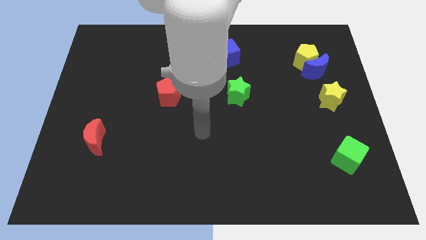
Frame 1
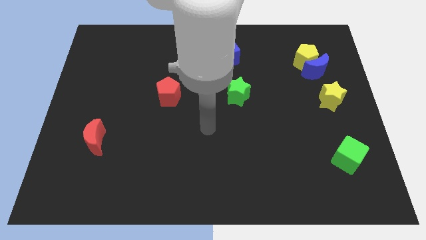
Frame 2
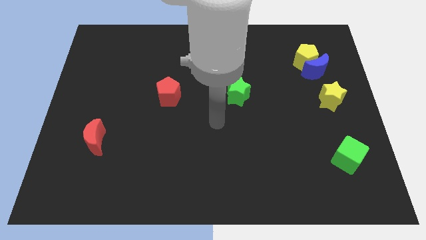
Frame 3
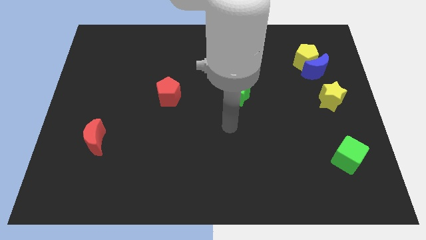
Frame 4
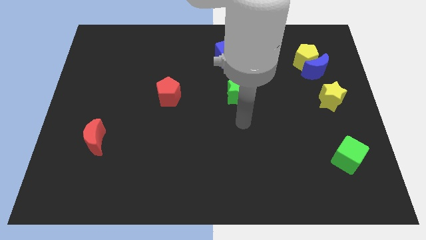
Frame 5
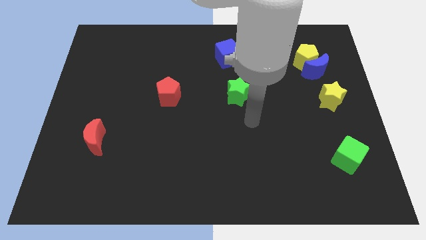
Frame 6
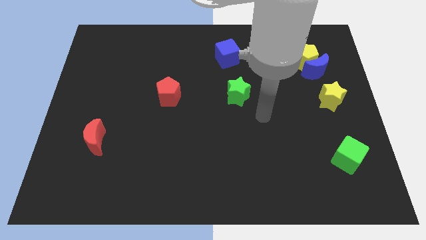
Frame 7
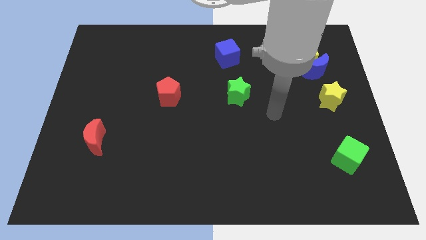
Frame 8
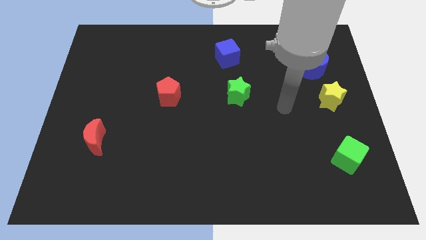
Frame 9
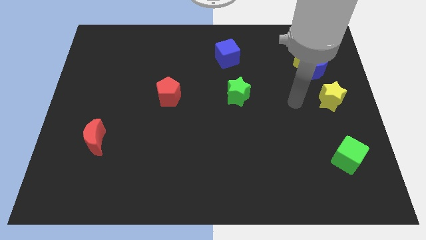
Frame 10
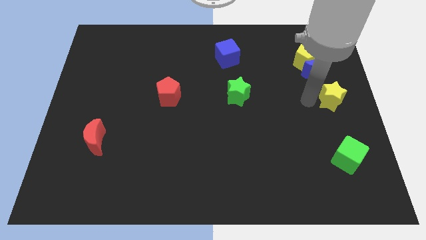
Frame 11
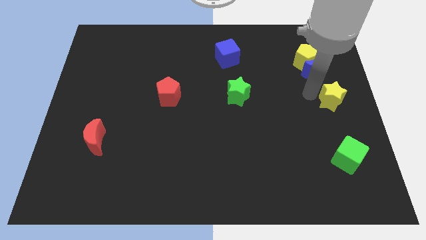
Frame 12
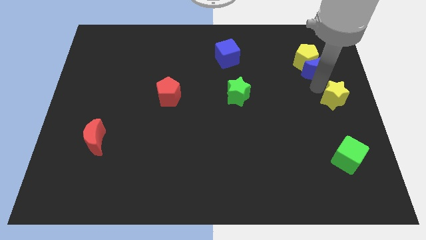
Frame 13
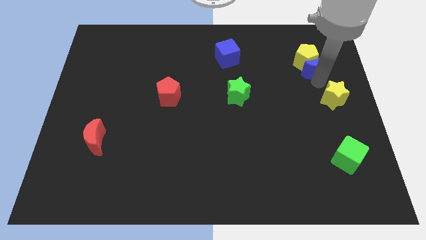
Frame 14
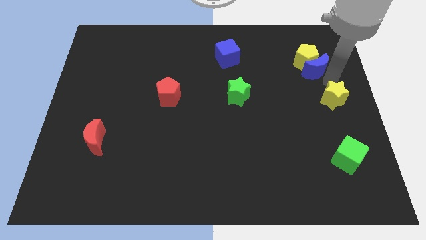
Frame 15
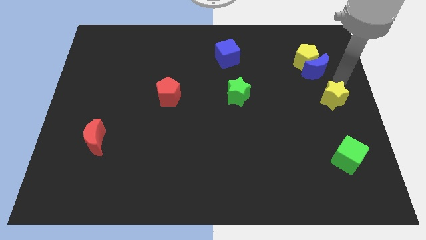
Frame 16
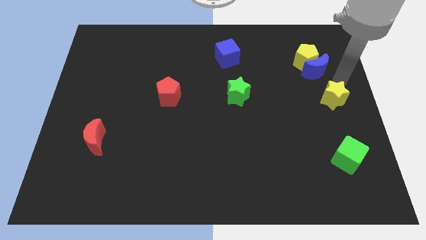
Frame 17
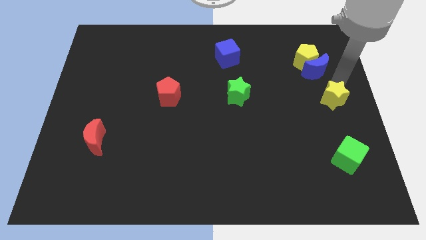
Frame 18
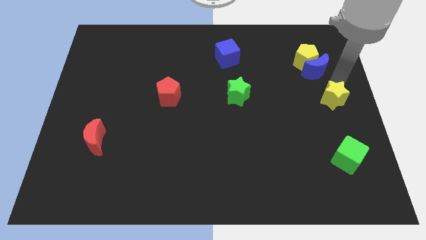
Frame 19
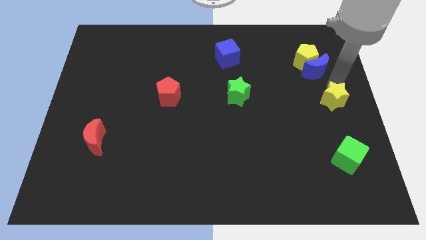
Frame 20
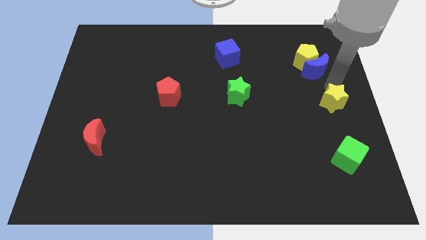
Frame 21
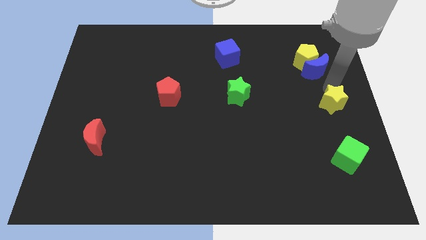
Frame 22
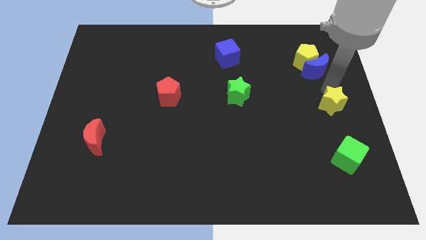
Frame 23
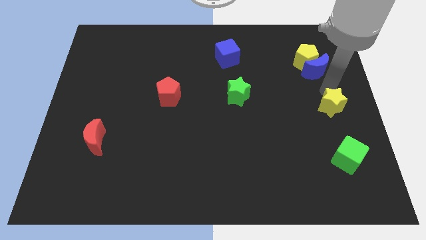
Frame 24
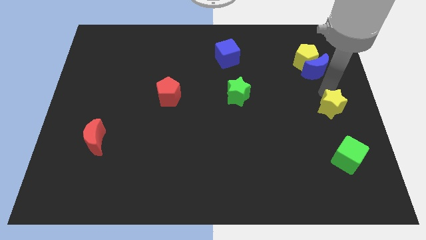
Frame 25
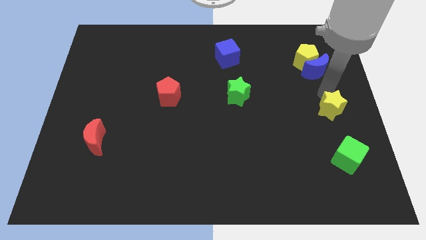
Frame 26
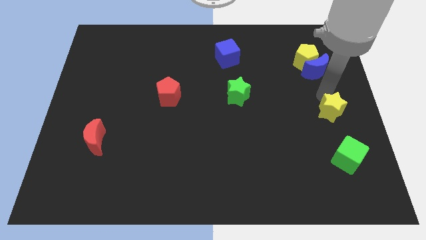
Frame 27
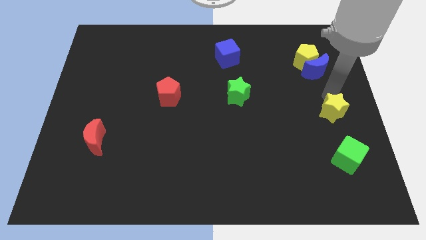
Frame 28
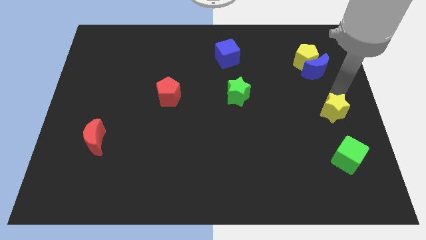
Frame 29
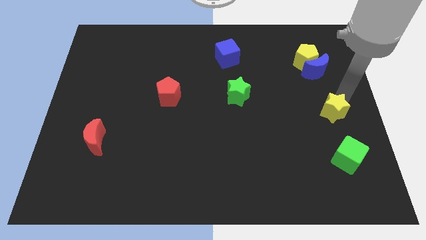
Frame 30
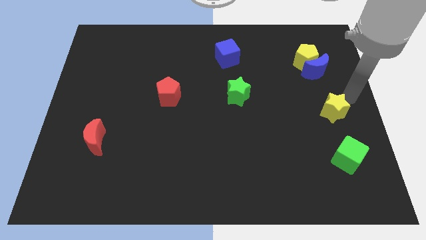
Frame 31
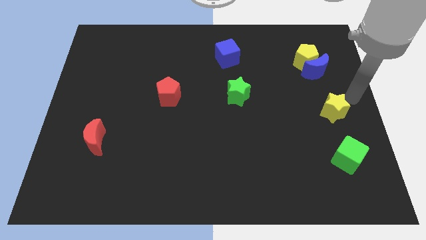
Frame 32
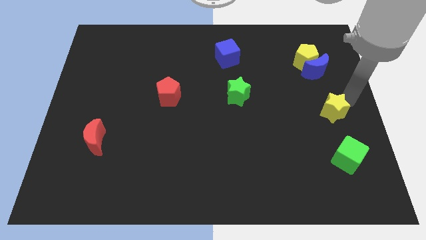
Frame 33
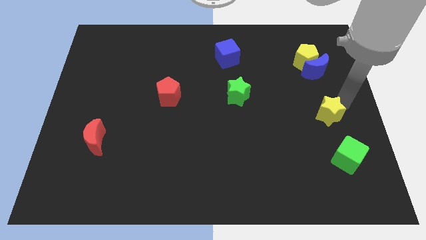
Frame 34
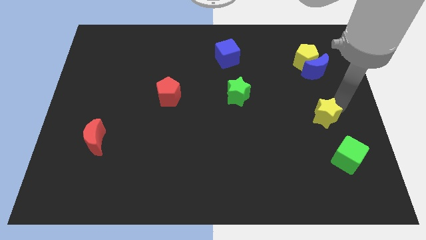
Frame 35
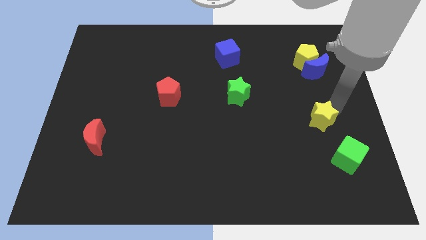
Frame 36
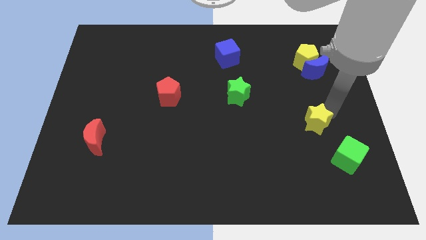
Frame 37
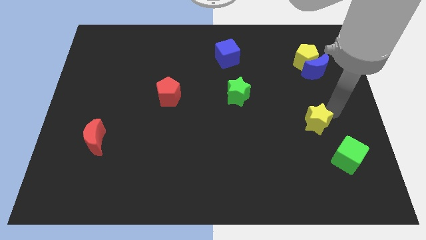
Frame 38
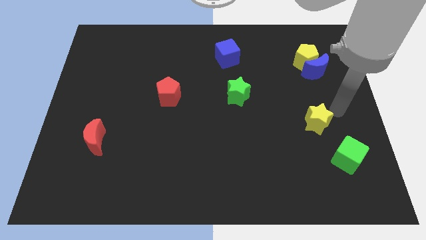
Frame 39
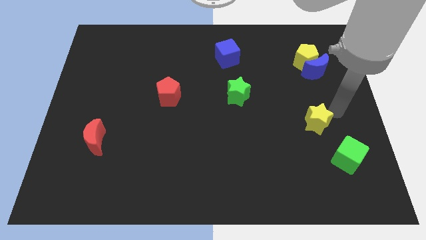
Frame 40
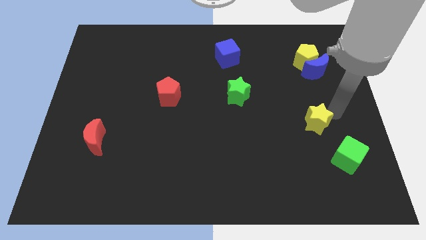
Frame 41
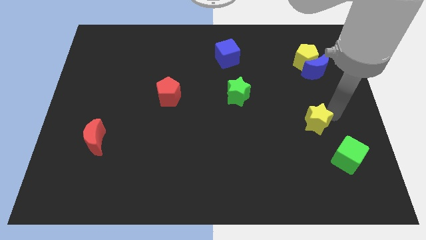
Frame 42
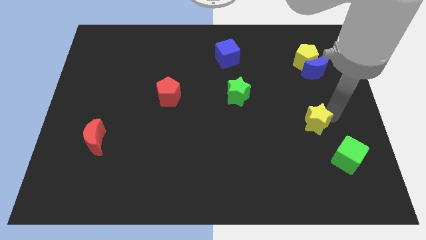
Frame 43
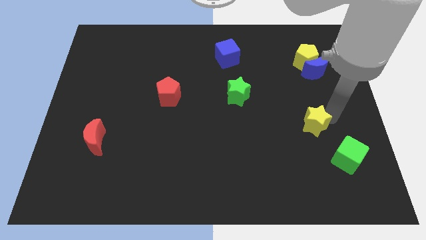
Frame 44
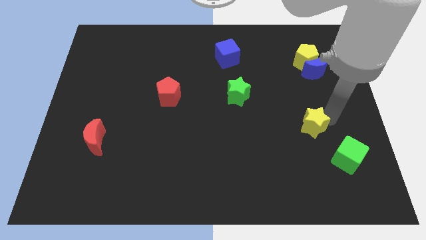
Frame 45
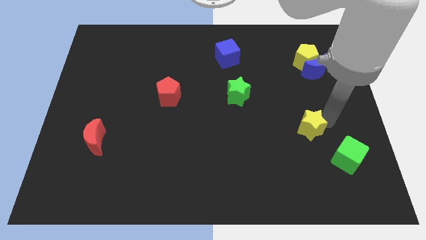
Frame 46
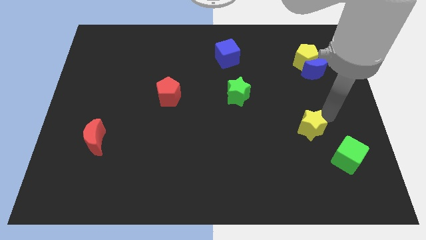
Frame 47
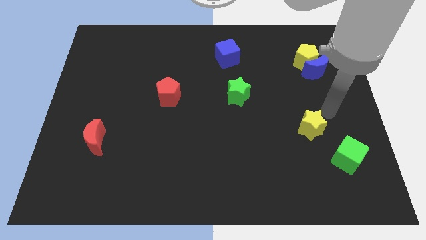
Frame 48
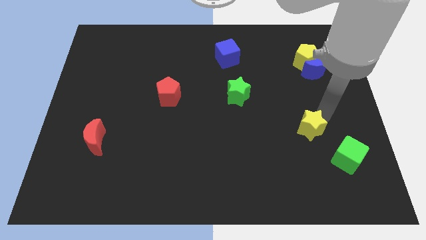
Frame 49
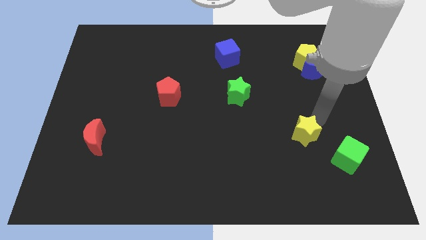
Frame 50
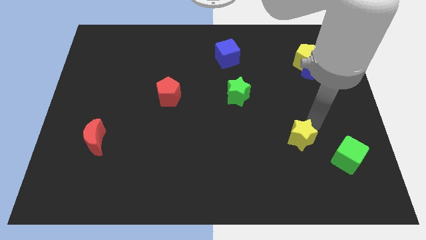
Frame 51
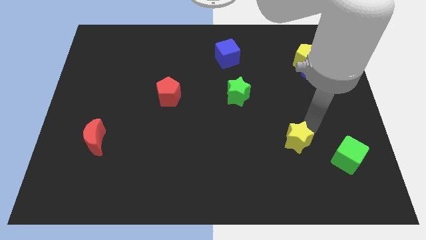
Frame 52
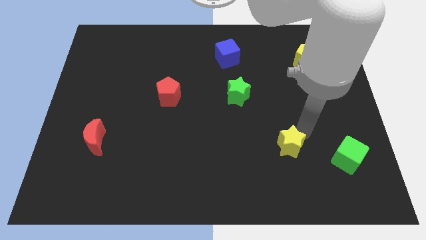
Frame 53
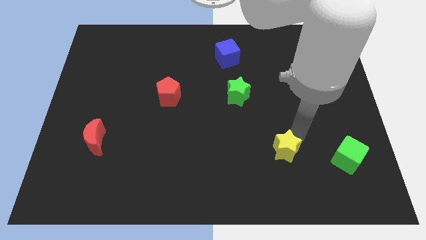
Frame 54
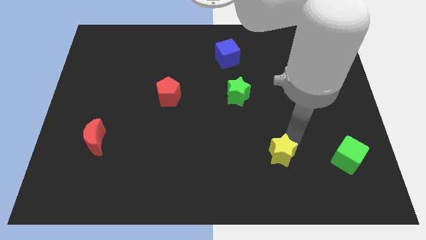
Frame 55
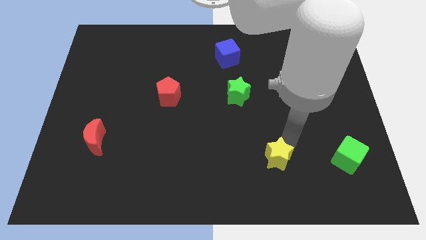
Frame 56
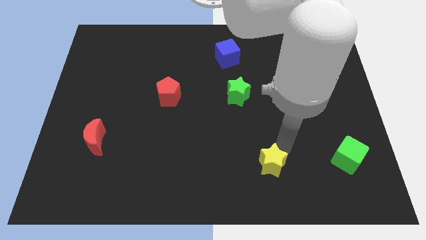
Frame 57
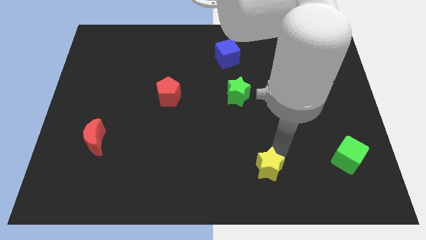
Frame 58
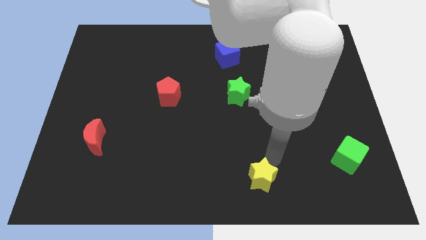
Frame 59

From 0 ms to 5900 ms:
move the yellow star to the bottom
